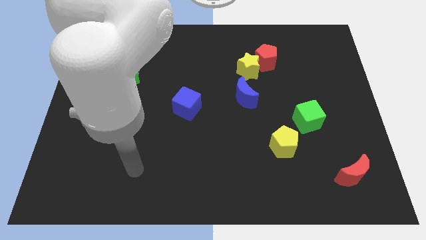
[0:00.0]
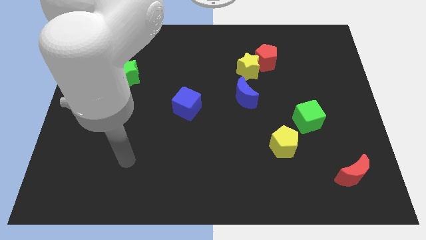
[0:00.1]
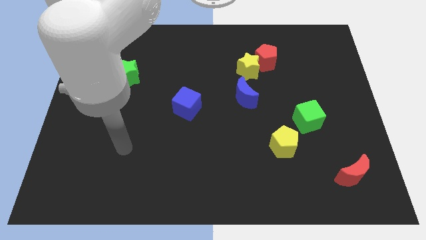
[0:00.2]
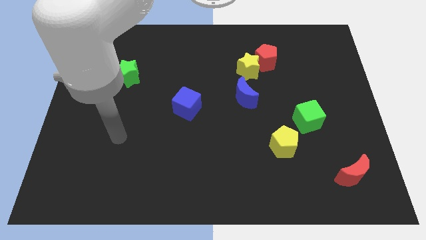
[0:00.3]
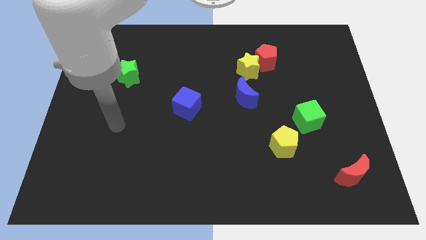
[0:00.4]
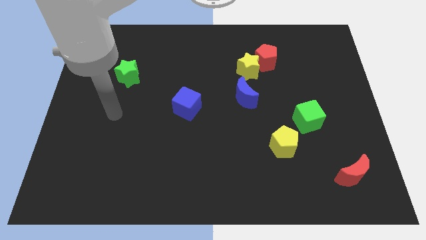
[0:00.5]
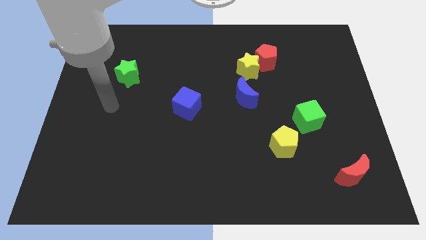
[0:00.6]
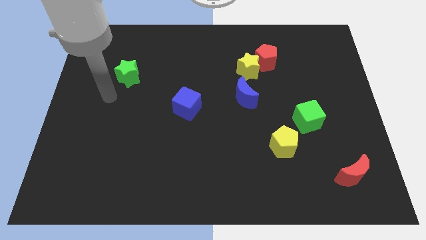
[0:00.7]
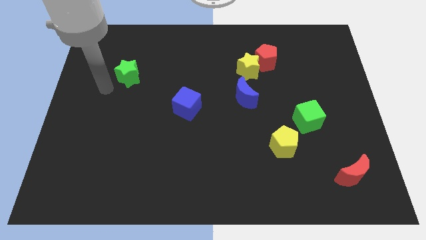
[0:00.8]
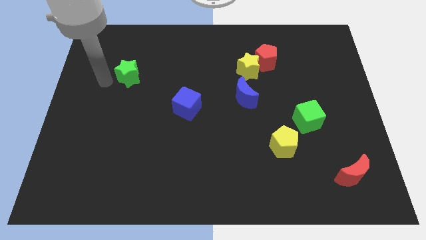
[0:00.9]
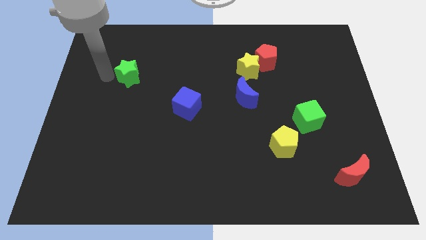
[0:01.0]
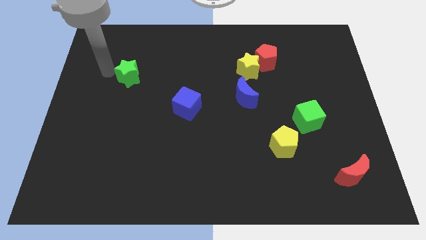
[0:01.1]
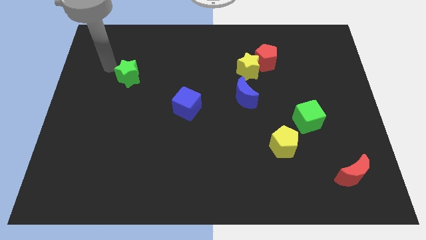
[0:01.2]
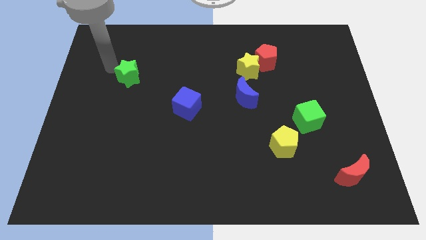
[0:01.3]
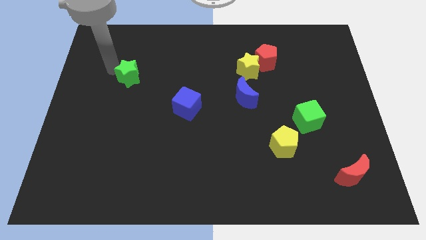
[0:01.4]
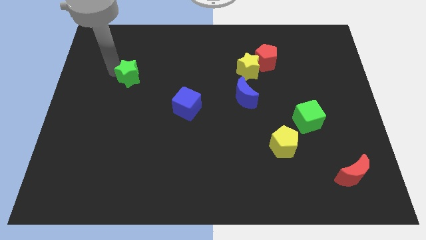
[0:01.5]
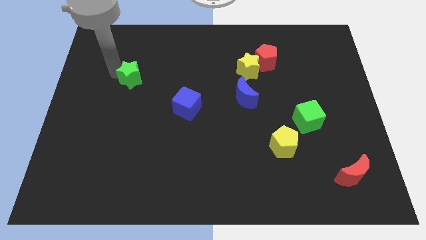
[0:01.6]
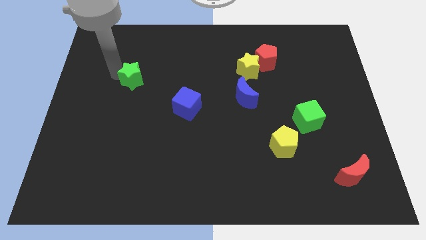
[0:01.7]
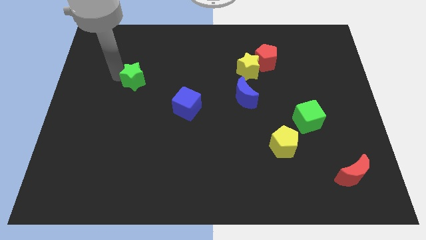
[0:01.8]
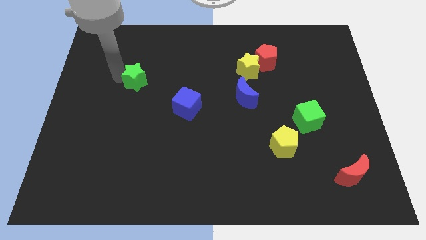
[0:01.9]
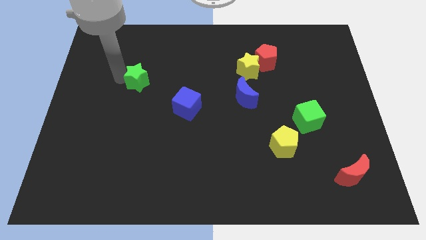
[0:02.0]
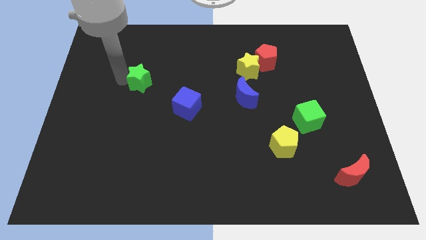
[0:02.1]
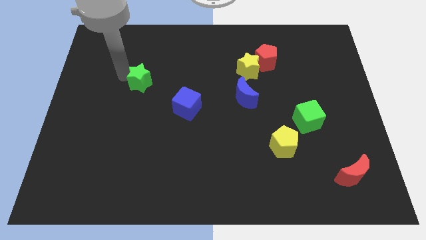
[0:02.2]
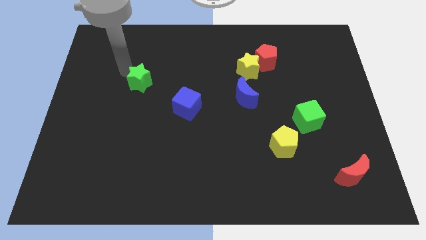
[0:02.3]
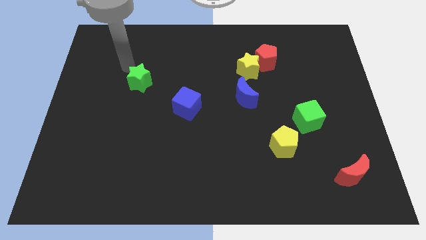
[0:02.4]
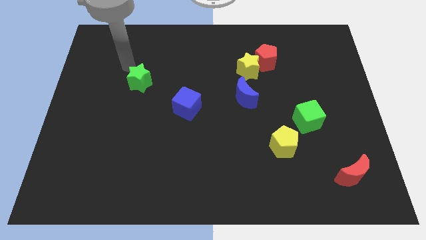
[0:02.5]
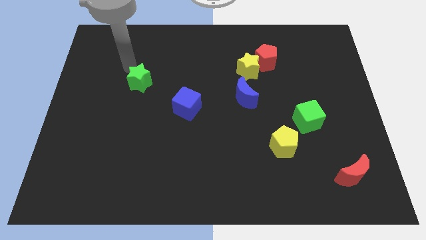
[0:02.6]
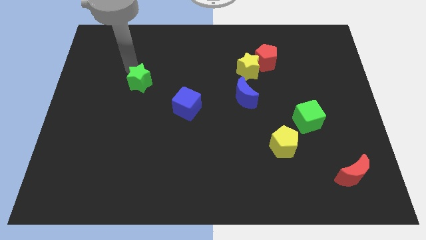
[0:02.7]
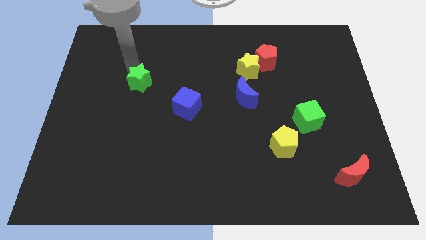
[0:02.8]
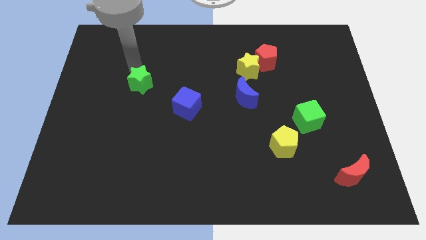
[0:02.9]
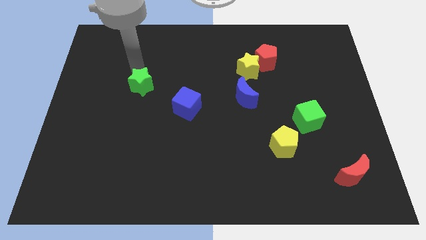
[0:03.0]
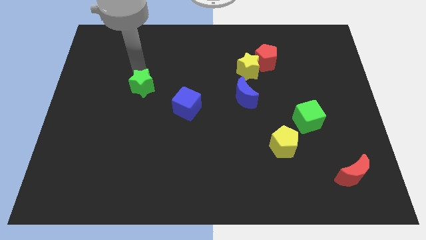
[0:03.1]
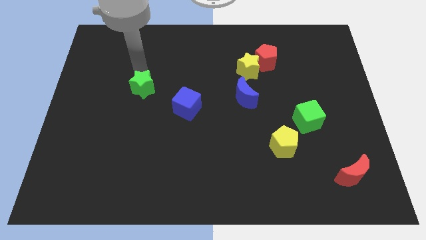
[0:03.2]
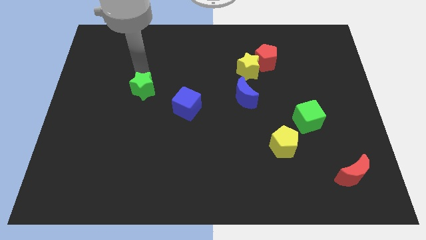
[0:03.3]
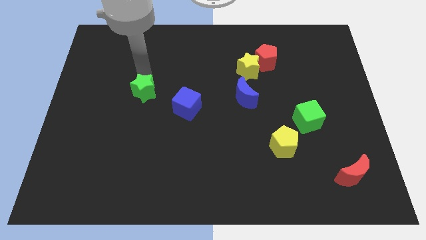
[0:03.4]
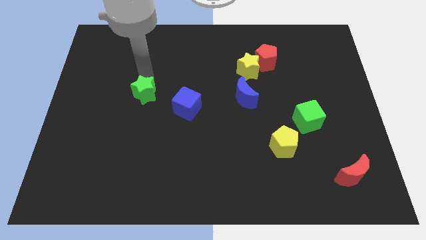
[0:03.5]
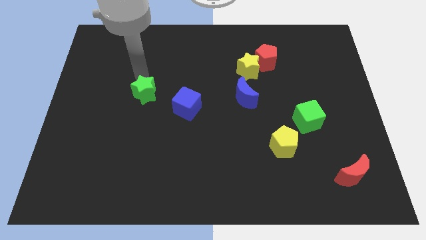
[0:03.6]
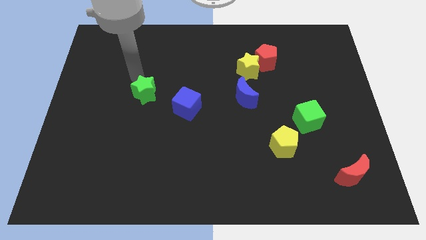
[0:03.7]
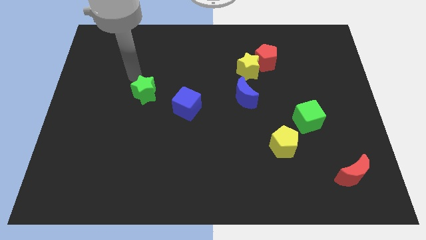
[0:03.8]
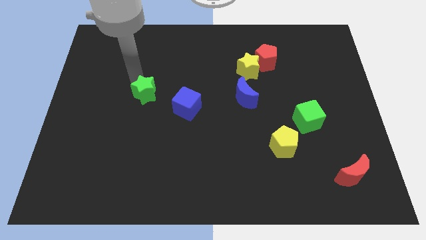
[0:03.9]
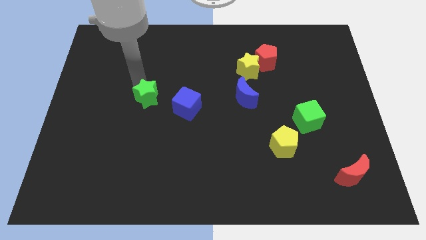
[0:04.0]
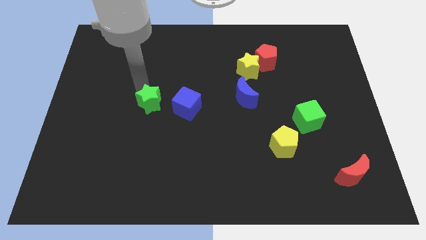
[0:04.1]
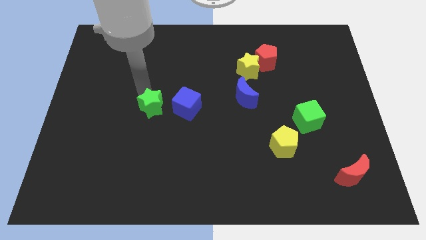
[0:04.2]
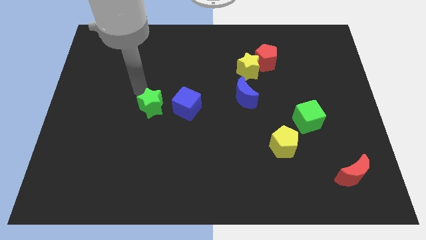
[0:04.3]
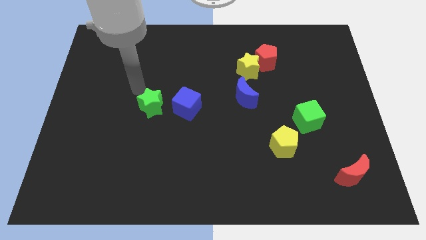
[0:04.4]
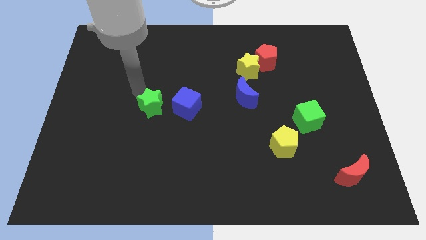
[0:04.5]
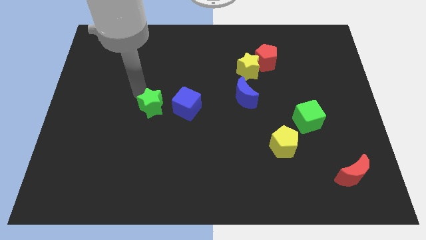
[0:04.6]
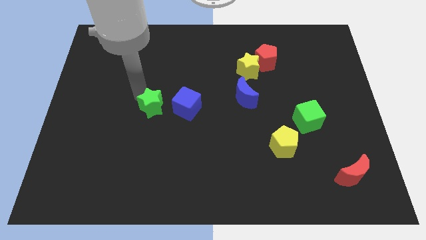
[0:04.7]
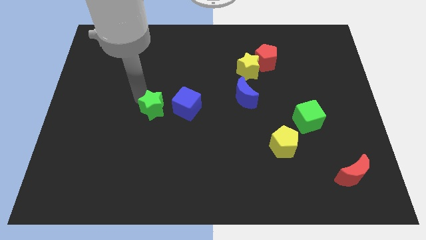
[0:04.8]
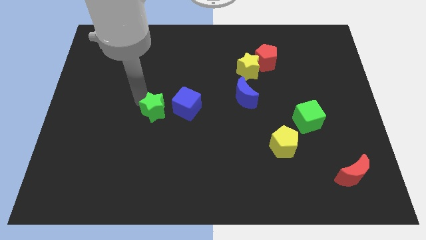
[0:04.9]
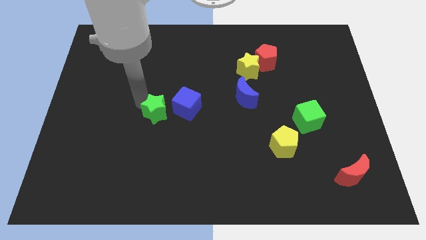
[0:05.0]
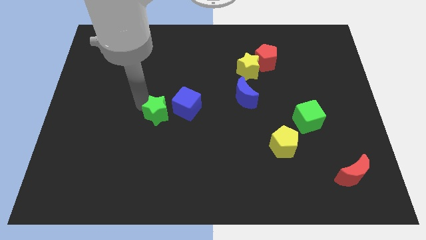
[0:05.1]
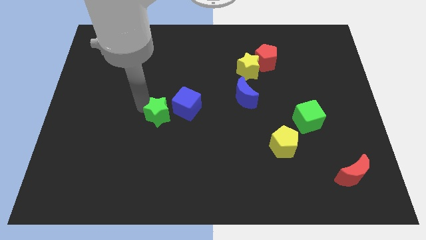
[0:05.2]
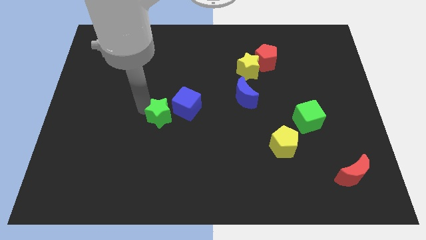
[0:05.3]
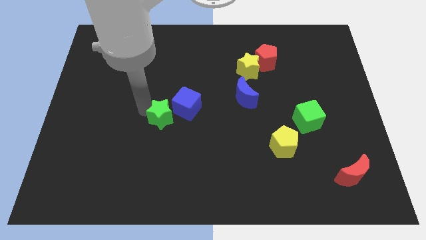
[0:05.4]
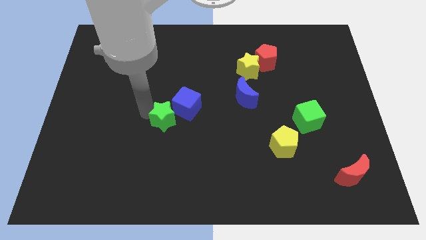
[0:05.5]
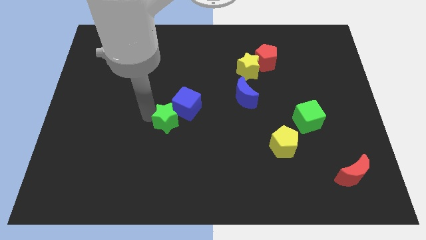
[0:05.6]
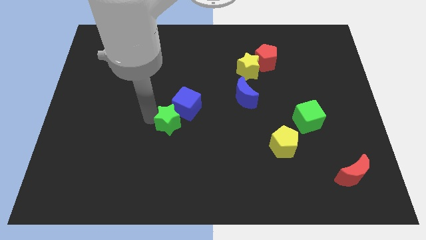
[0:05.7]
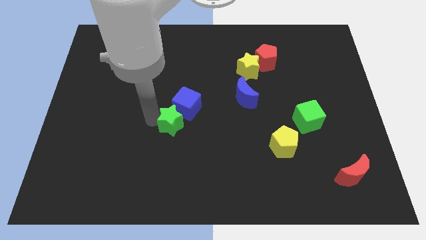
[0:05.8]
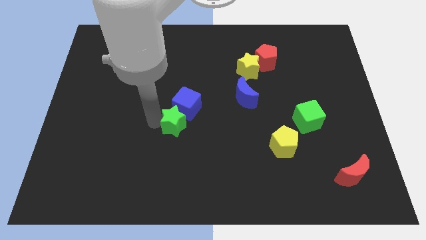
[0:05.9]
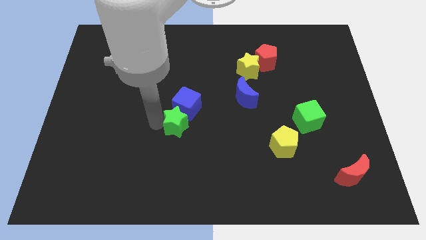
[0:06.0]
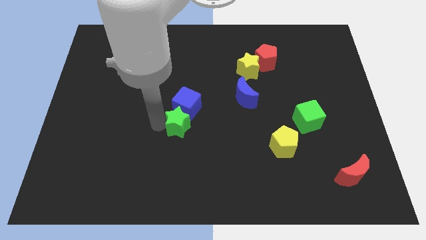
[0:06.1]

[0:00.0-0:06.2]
slide the green star downwards and then right

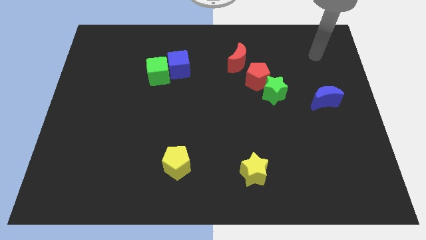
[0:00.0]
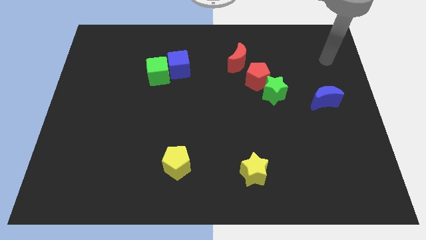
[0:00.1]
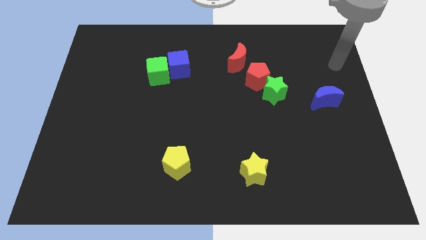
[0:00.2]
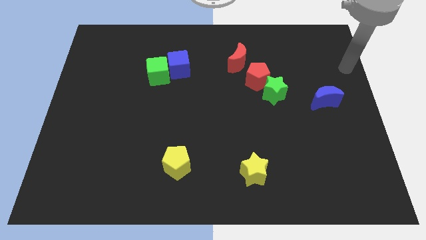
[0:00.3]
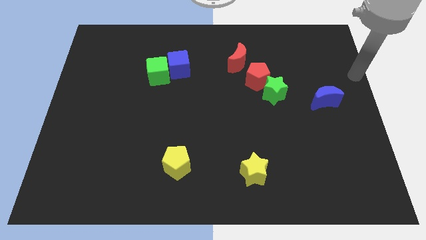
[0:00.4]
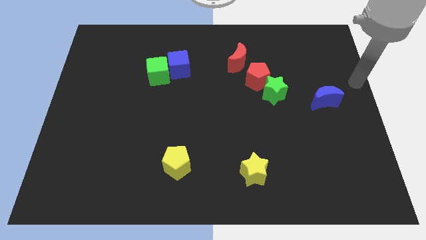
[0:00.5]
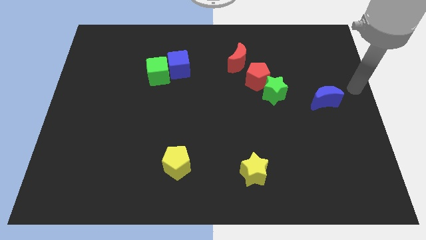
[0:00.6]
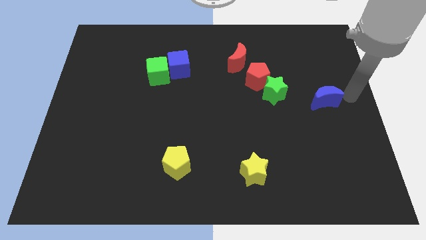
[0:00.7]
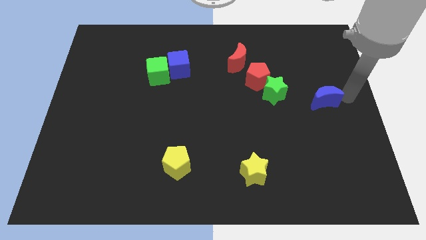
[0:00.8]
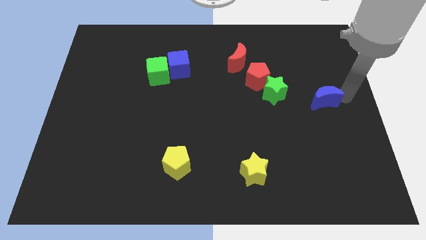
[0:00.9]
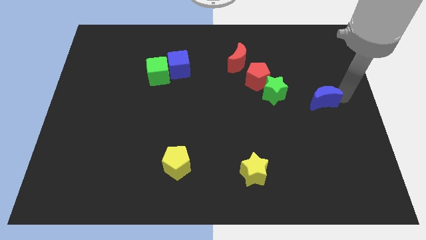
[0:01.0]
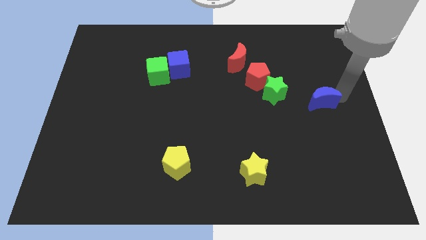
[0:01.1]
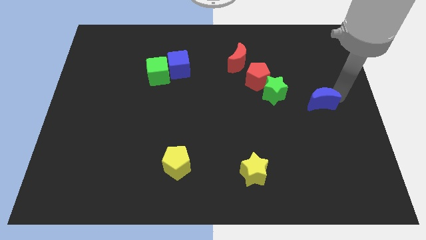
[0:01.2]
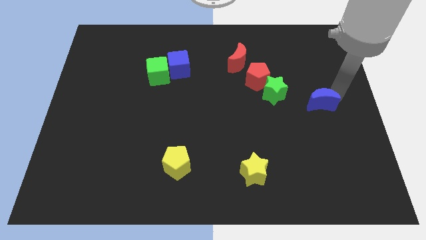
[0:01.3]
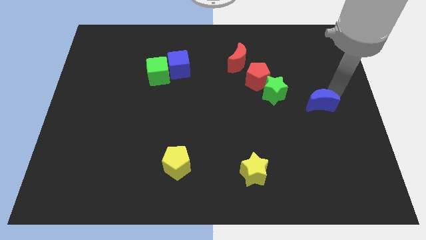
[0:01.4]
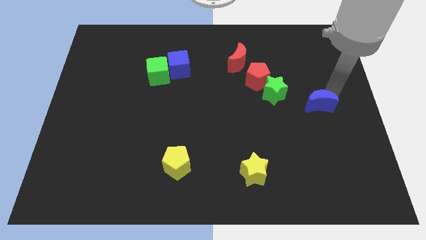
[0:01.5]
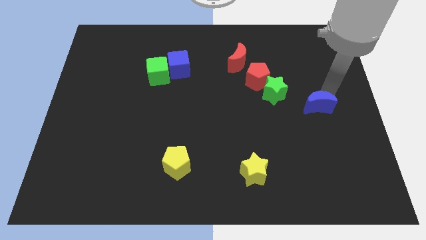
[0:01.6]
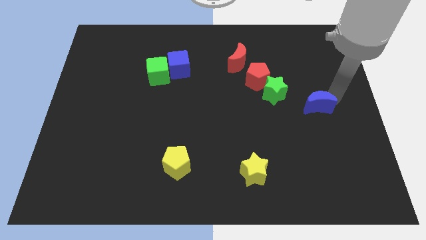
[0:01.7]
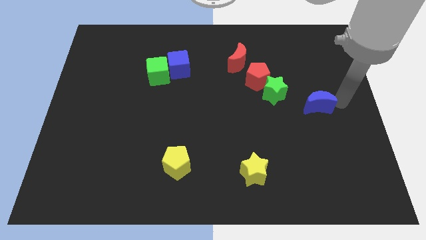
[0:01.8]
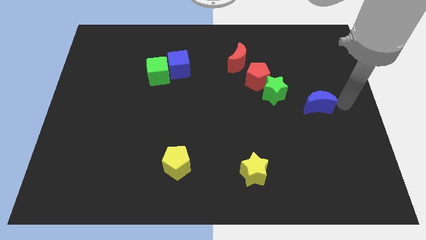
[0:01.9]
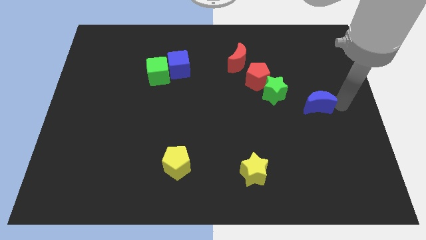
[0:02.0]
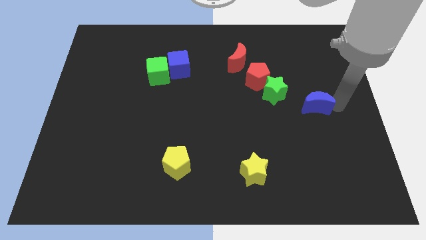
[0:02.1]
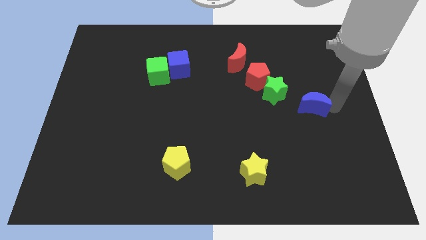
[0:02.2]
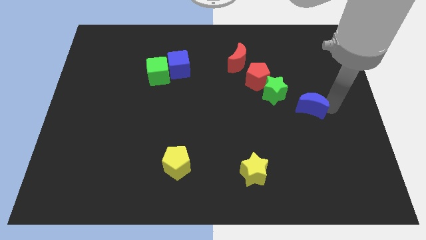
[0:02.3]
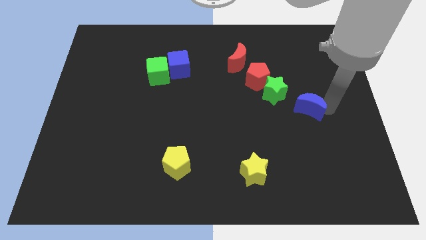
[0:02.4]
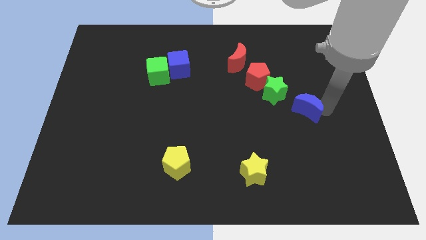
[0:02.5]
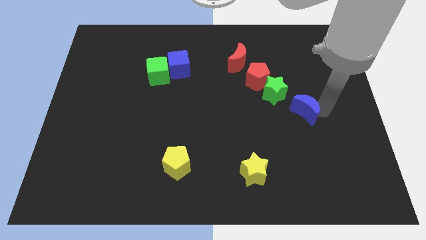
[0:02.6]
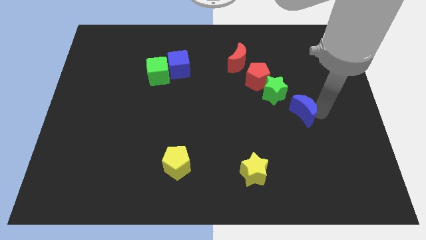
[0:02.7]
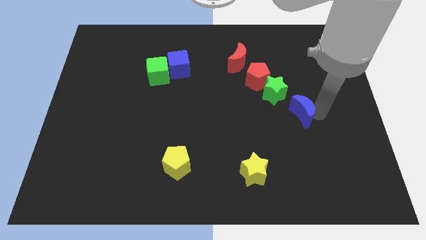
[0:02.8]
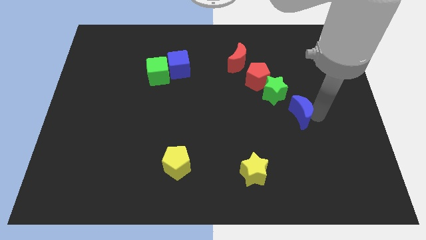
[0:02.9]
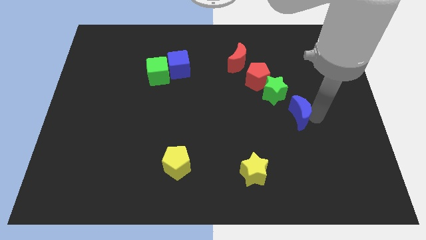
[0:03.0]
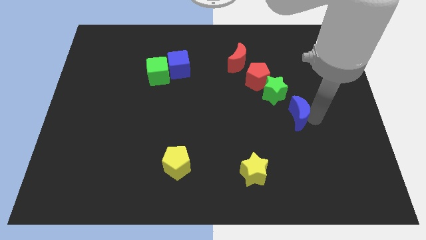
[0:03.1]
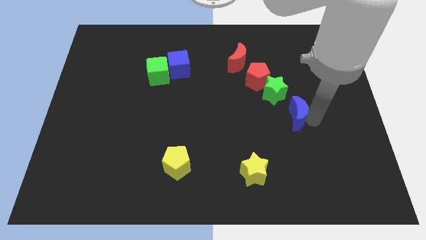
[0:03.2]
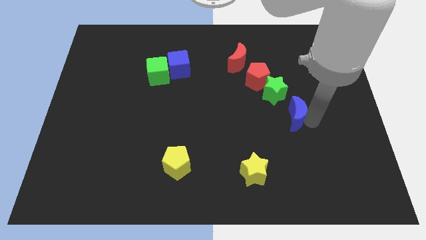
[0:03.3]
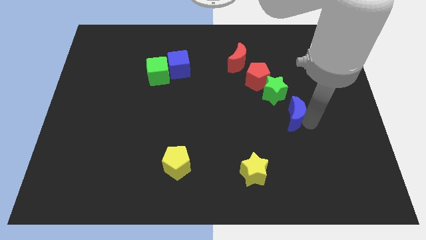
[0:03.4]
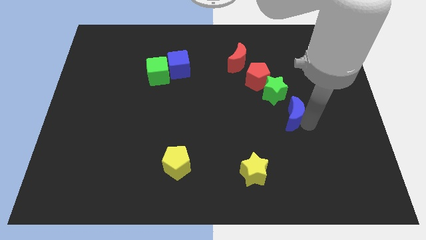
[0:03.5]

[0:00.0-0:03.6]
push the blue moon somewhat left
